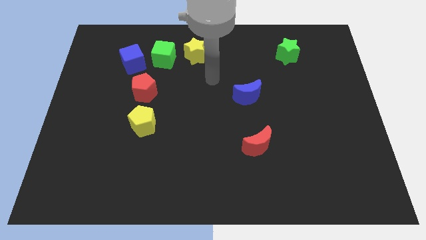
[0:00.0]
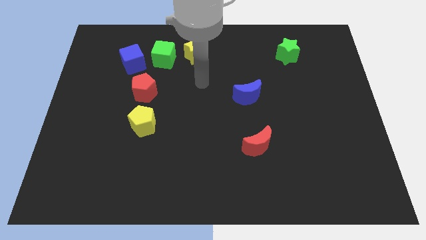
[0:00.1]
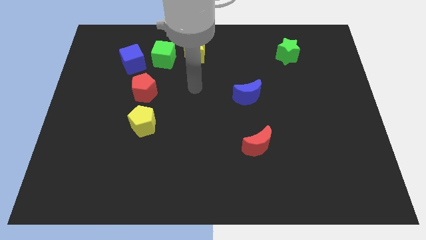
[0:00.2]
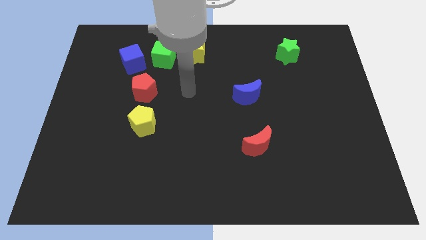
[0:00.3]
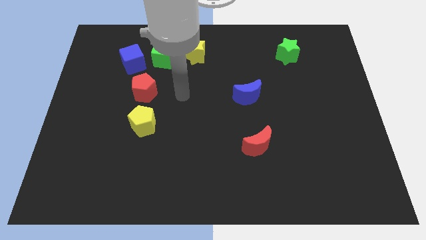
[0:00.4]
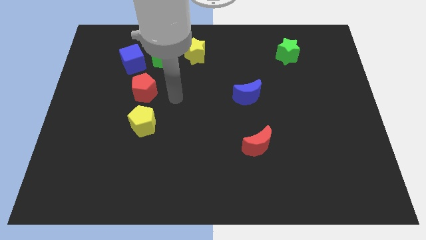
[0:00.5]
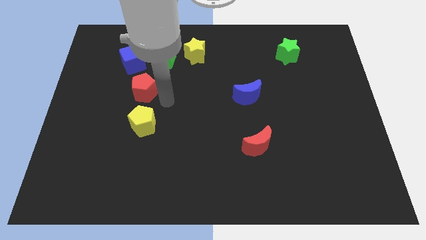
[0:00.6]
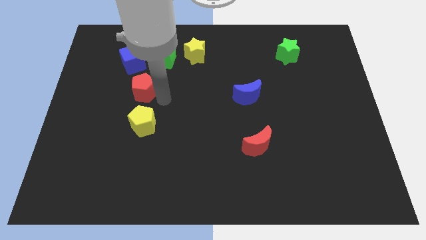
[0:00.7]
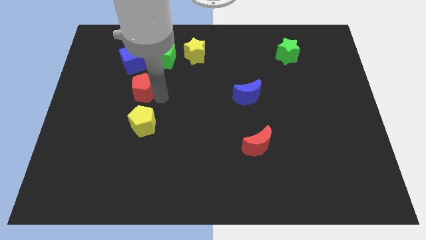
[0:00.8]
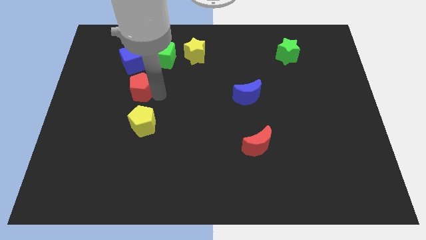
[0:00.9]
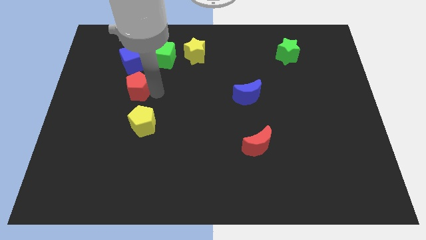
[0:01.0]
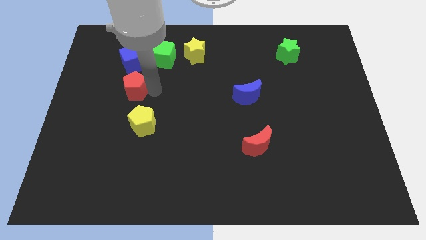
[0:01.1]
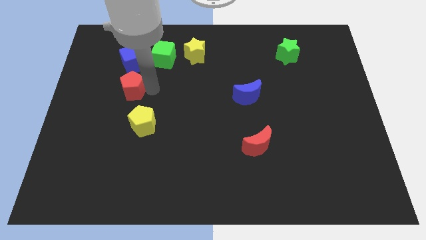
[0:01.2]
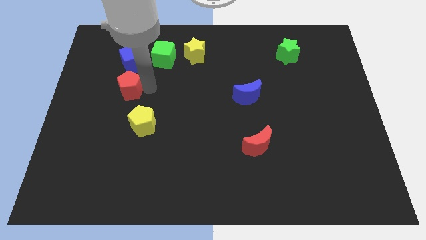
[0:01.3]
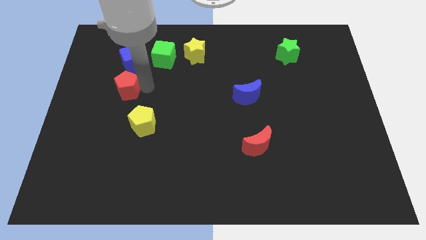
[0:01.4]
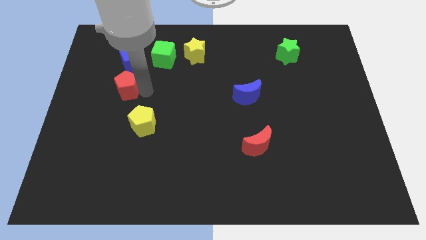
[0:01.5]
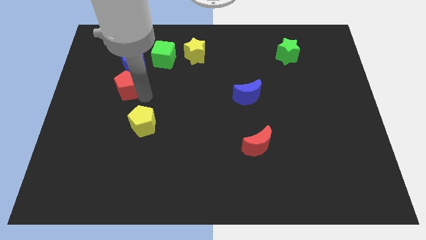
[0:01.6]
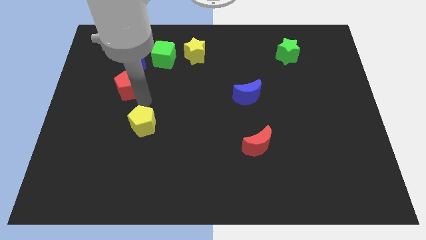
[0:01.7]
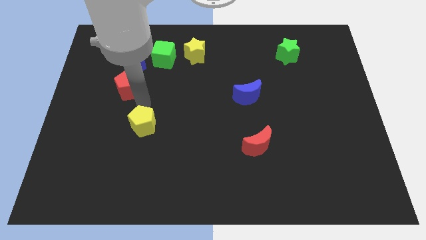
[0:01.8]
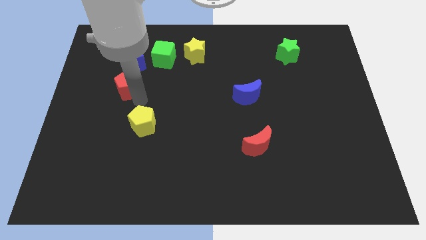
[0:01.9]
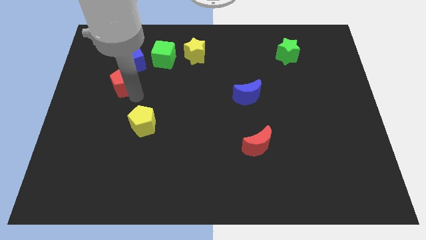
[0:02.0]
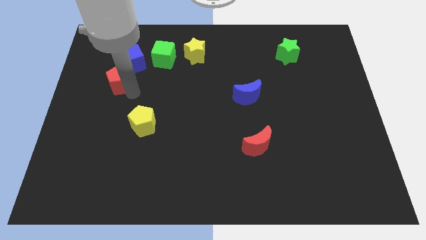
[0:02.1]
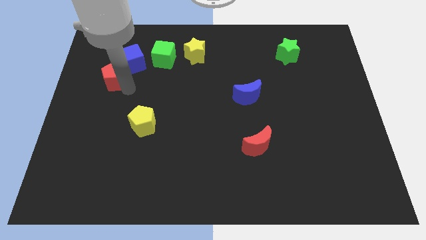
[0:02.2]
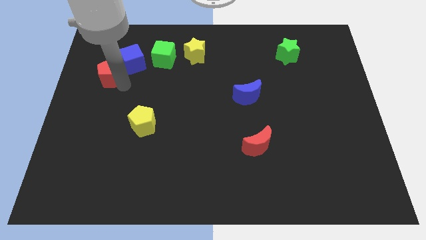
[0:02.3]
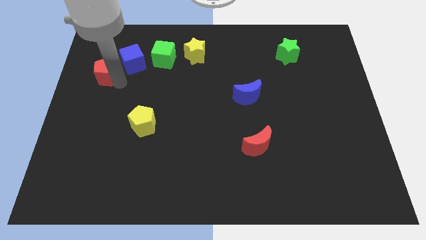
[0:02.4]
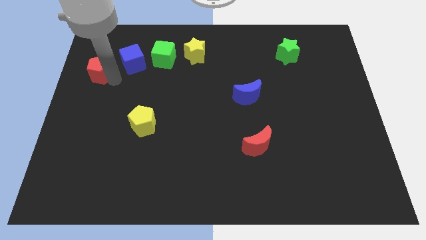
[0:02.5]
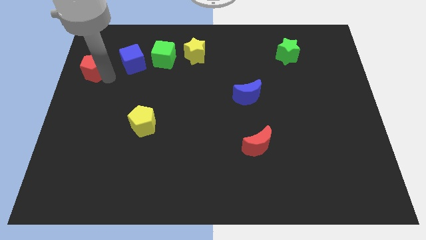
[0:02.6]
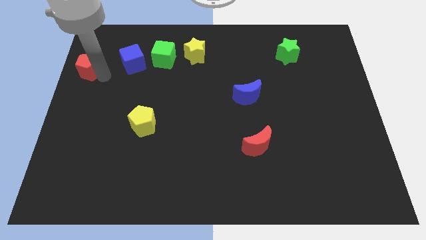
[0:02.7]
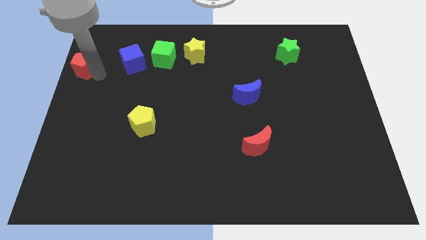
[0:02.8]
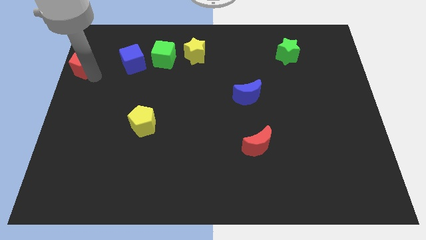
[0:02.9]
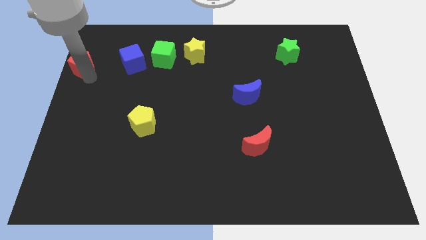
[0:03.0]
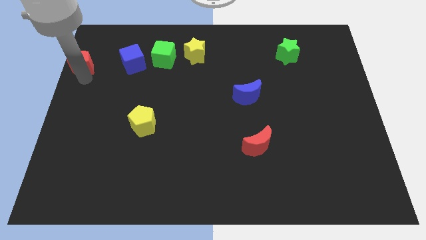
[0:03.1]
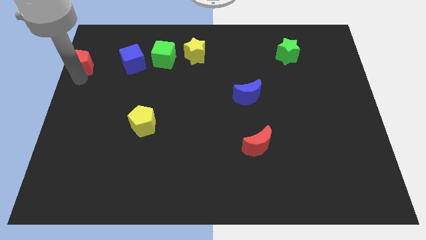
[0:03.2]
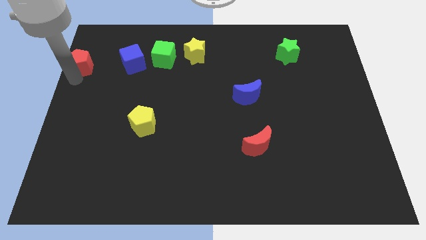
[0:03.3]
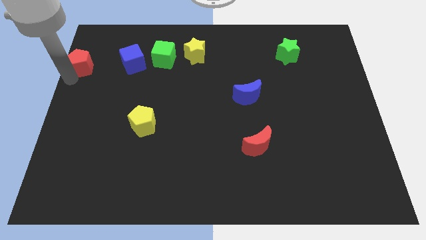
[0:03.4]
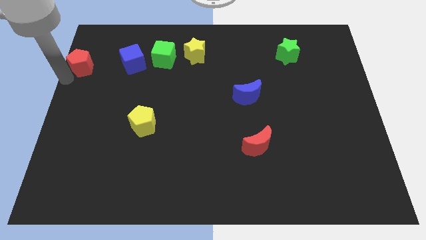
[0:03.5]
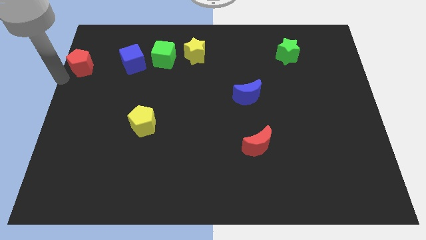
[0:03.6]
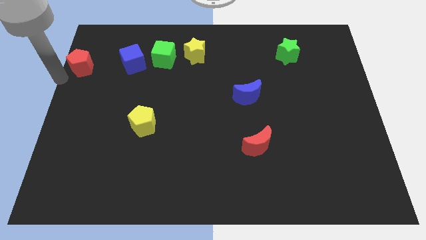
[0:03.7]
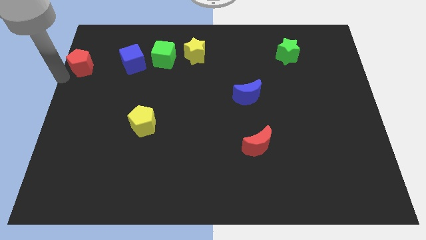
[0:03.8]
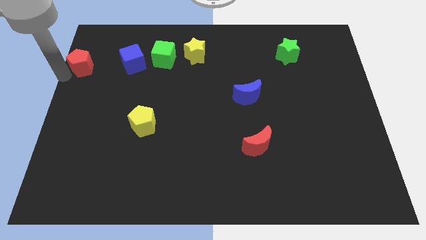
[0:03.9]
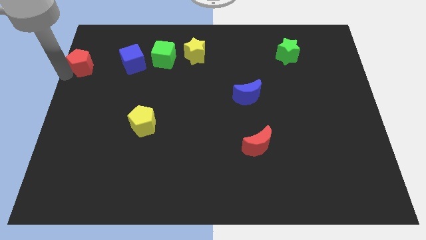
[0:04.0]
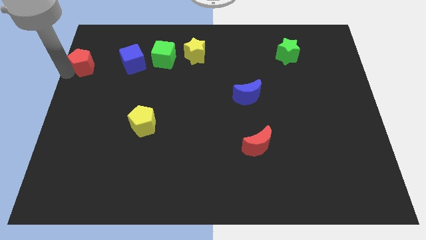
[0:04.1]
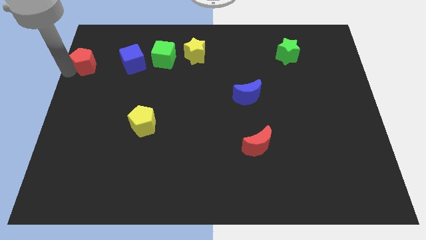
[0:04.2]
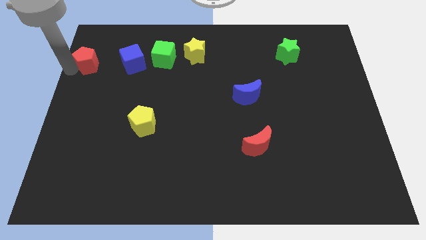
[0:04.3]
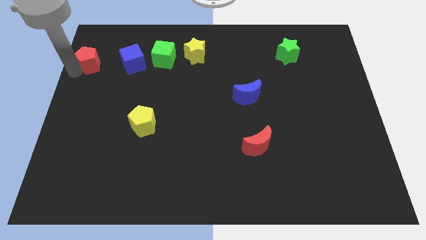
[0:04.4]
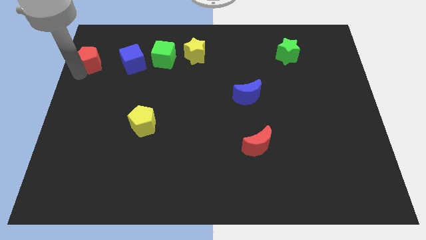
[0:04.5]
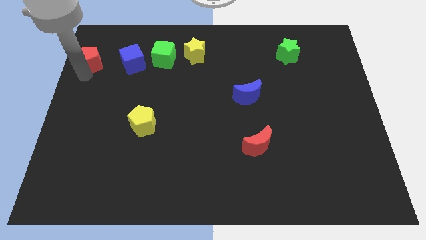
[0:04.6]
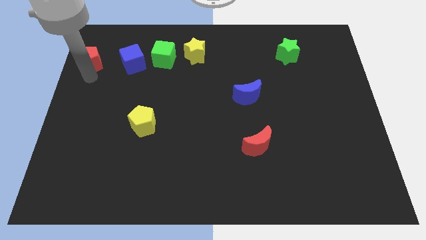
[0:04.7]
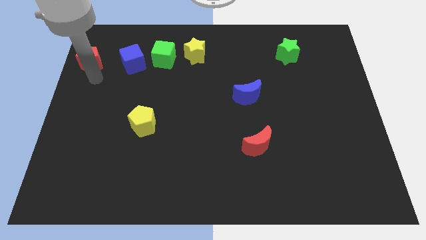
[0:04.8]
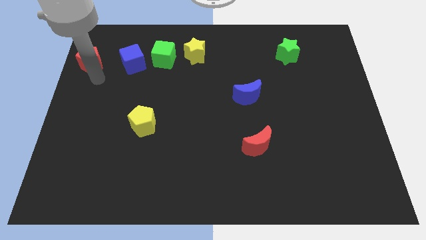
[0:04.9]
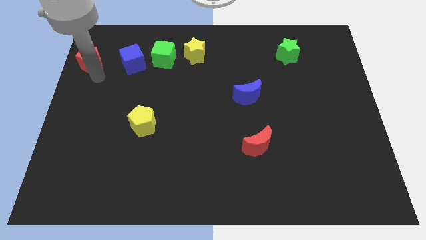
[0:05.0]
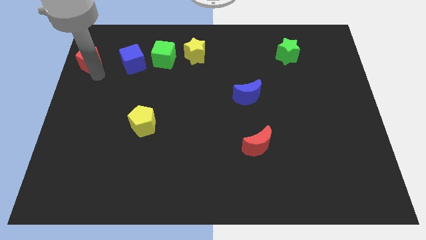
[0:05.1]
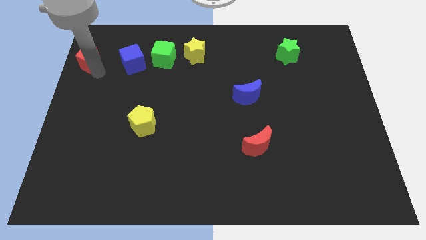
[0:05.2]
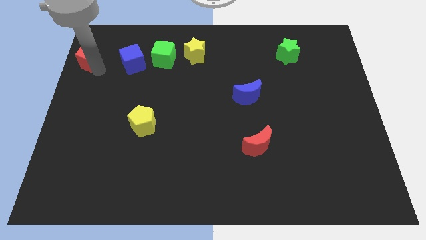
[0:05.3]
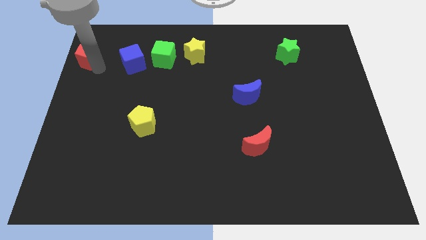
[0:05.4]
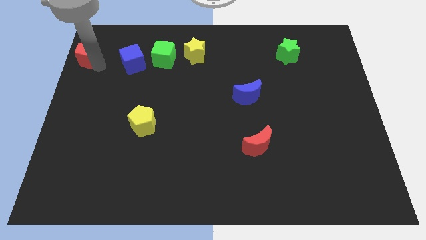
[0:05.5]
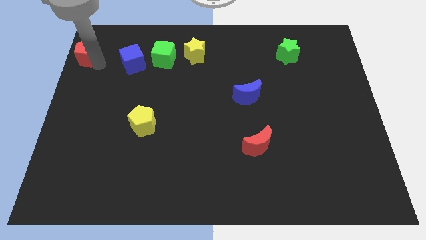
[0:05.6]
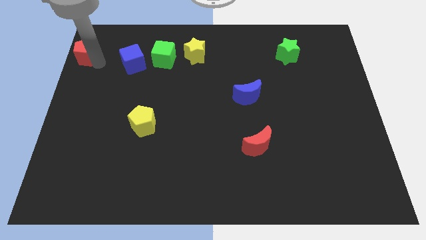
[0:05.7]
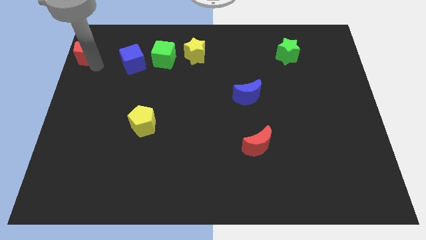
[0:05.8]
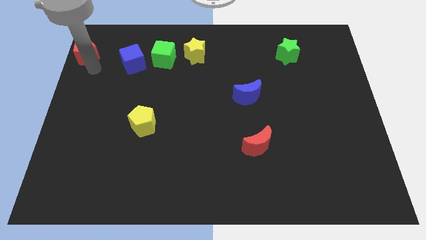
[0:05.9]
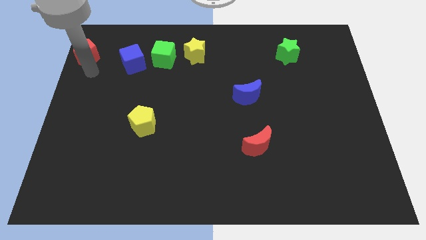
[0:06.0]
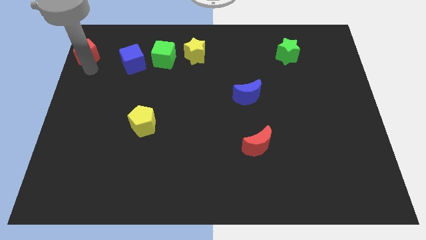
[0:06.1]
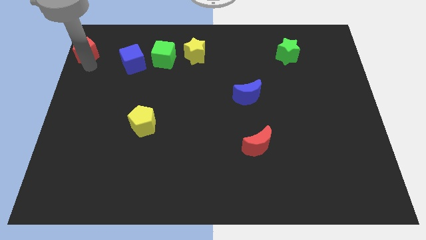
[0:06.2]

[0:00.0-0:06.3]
put the red pentagon to the upper left corner
